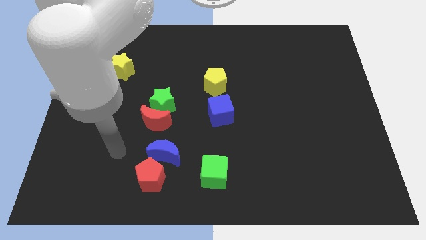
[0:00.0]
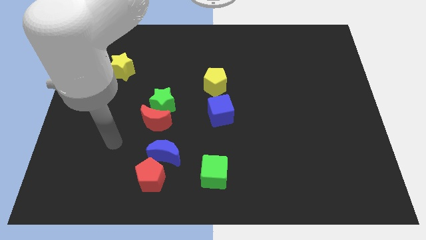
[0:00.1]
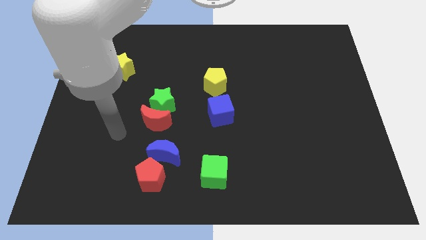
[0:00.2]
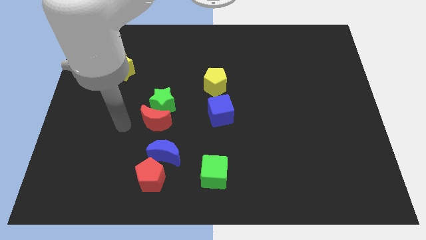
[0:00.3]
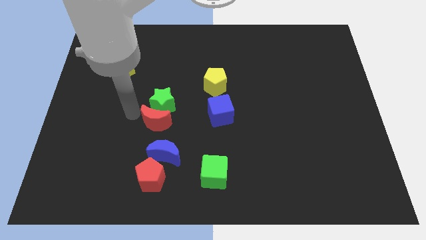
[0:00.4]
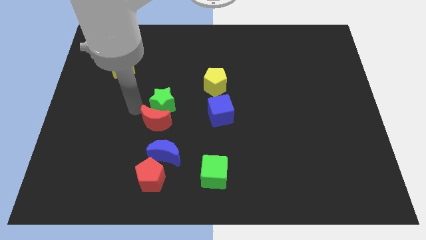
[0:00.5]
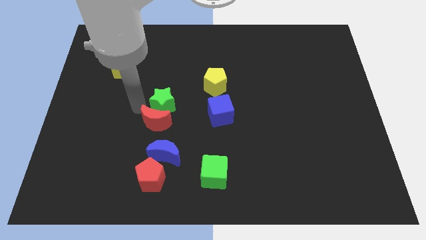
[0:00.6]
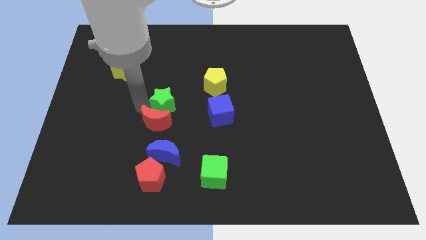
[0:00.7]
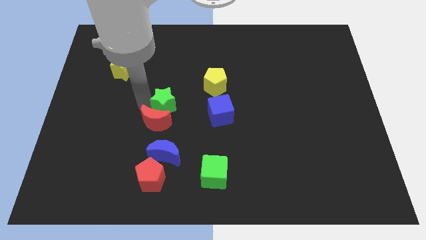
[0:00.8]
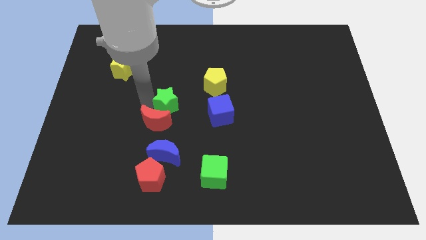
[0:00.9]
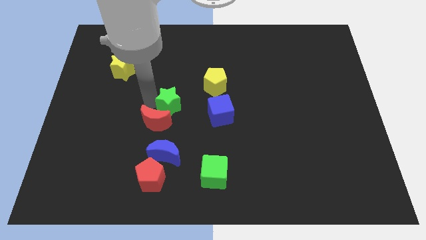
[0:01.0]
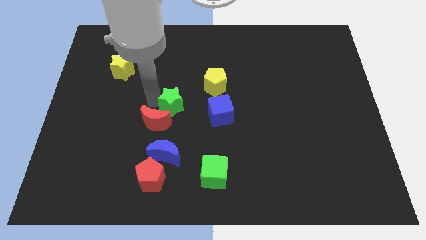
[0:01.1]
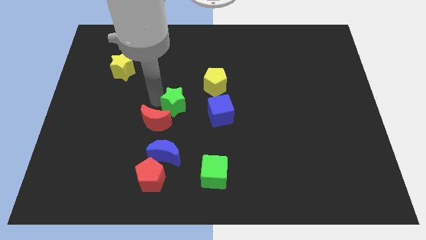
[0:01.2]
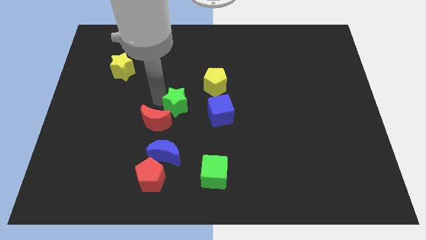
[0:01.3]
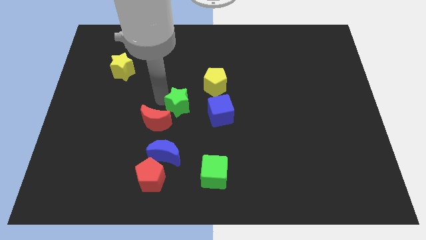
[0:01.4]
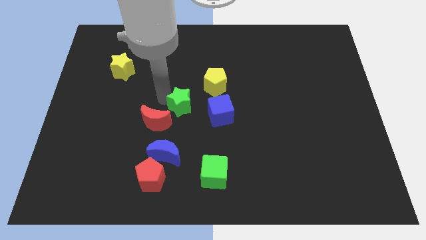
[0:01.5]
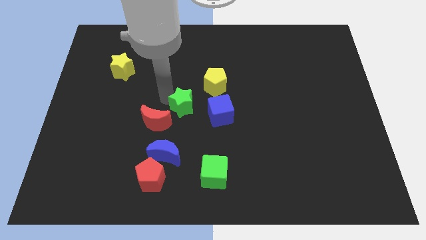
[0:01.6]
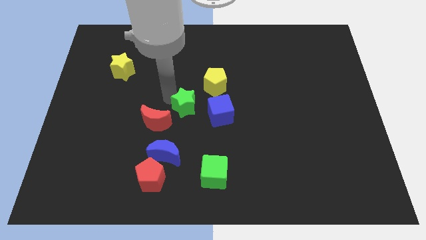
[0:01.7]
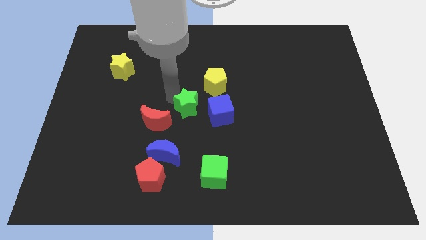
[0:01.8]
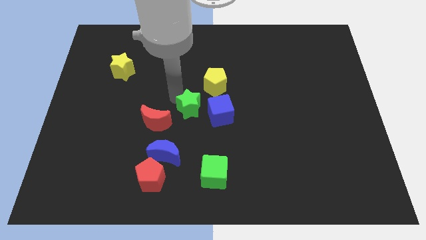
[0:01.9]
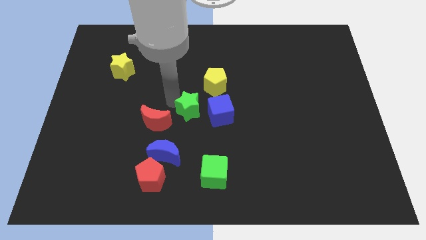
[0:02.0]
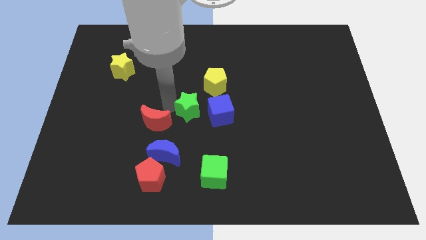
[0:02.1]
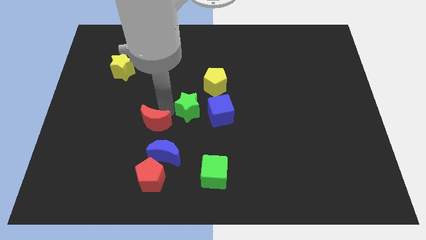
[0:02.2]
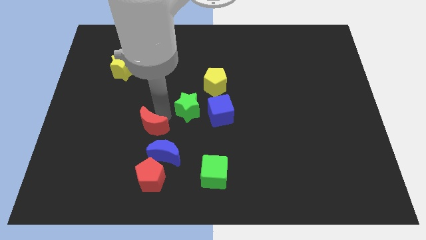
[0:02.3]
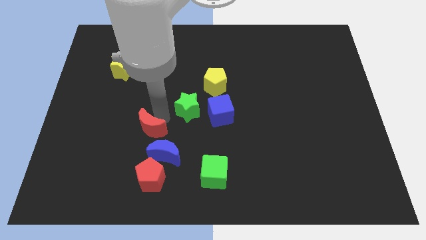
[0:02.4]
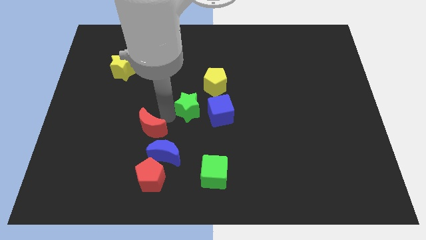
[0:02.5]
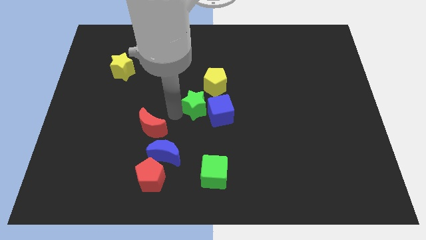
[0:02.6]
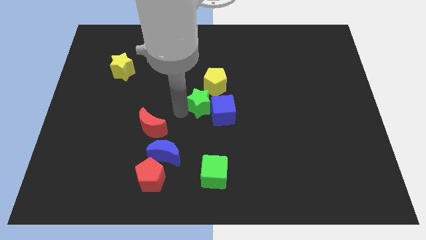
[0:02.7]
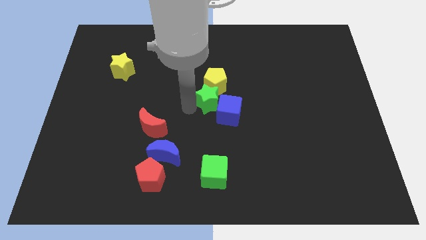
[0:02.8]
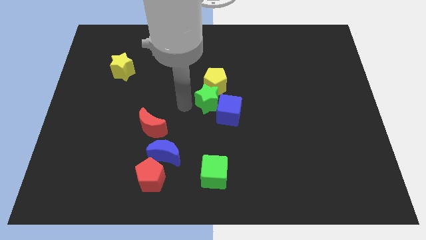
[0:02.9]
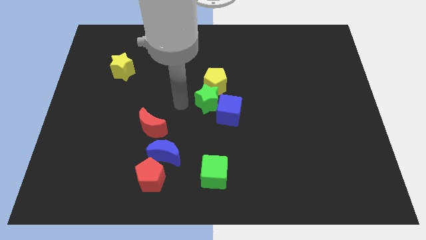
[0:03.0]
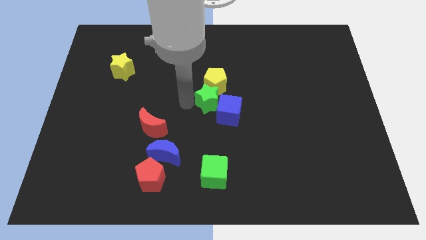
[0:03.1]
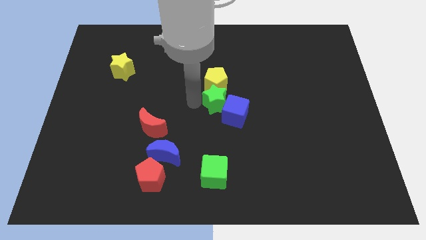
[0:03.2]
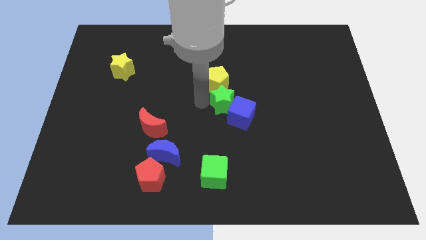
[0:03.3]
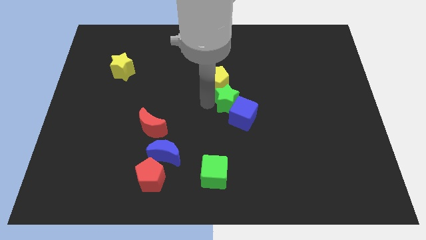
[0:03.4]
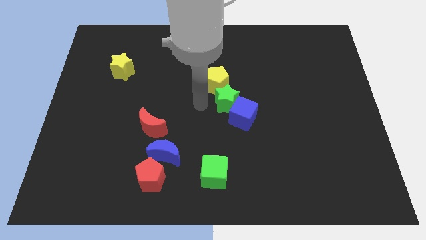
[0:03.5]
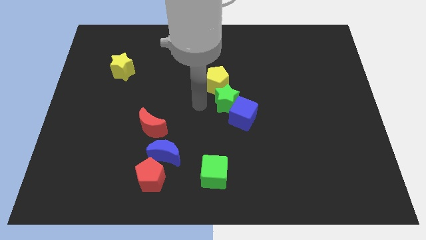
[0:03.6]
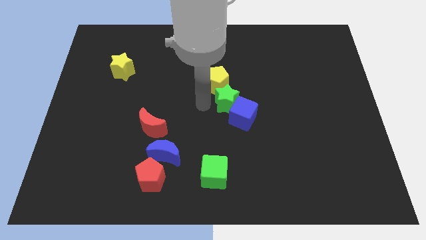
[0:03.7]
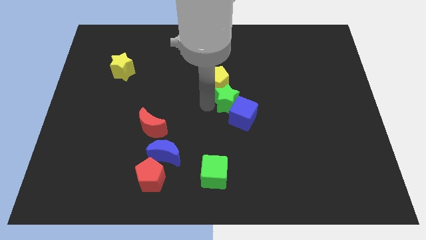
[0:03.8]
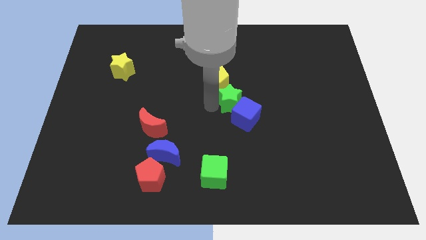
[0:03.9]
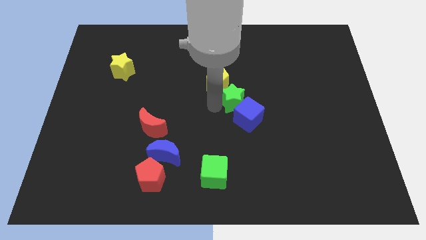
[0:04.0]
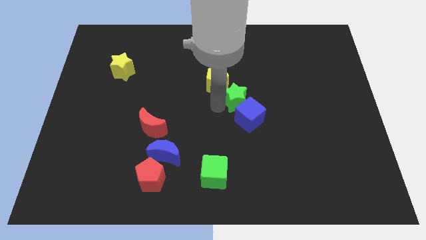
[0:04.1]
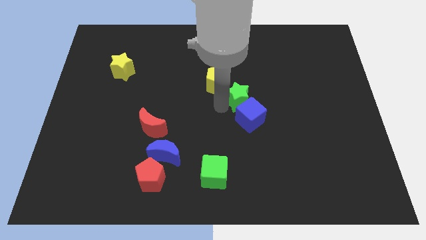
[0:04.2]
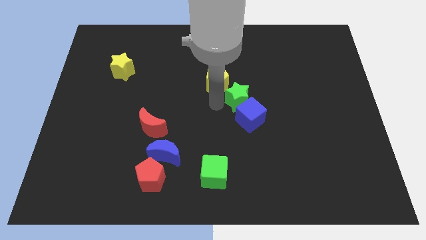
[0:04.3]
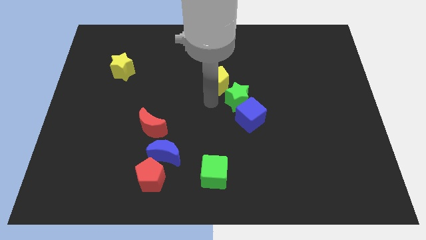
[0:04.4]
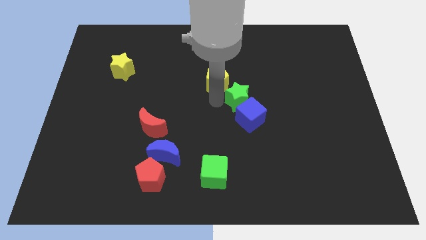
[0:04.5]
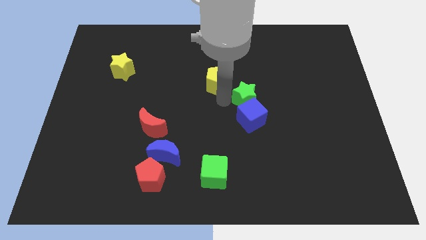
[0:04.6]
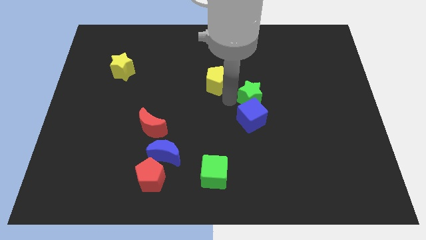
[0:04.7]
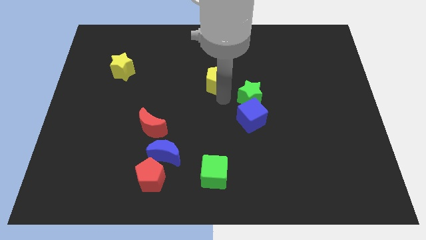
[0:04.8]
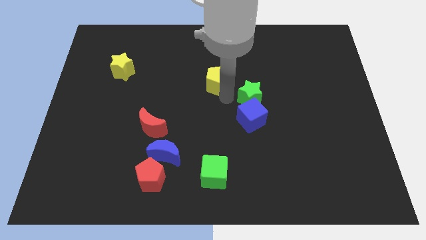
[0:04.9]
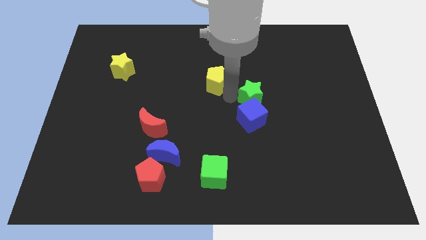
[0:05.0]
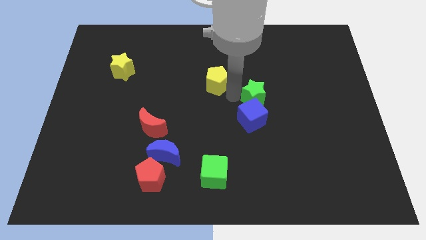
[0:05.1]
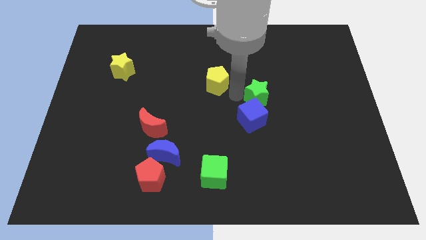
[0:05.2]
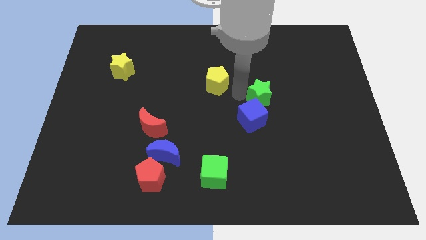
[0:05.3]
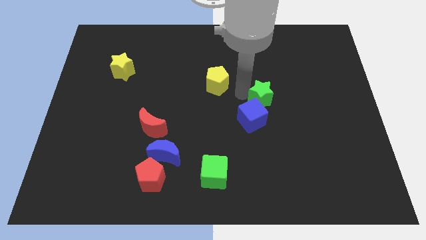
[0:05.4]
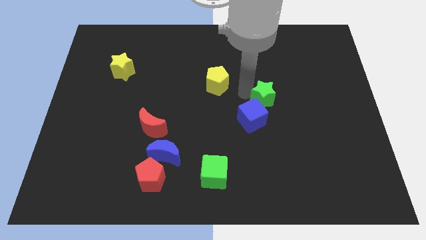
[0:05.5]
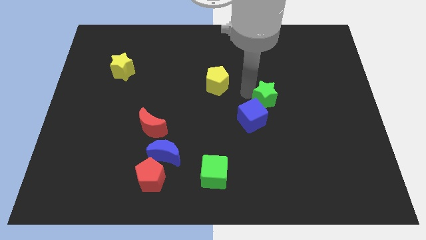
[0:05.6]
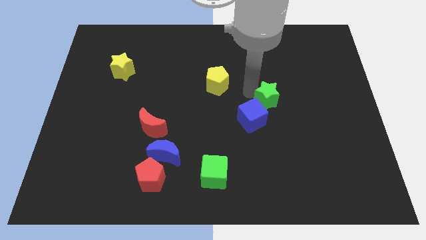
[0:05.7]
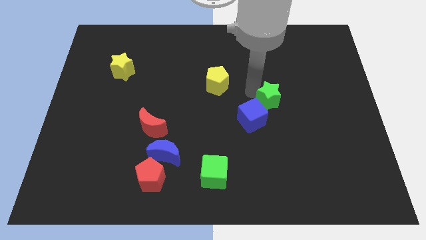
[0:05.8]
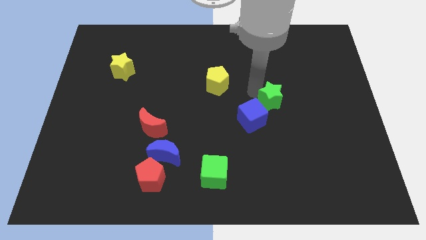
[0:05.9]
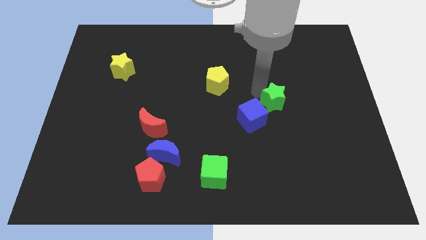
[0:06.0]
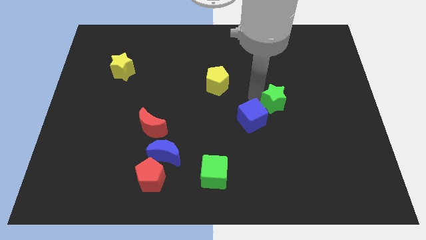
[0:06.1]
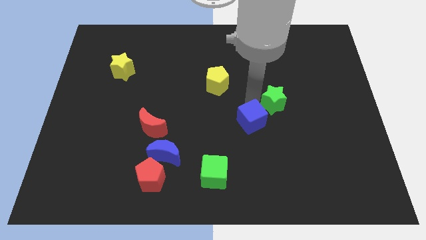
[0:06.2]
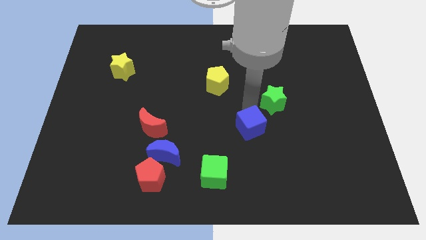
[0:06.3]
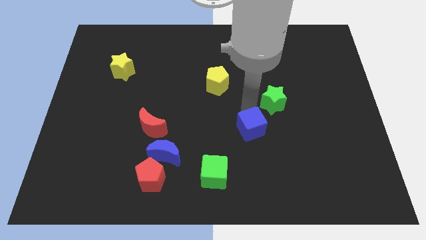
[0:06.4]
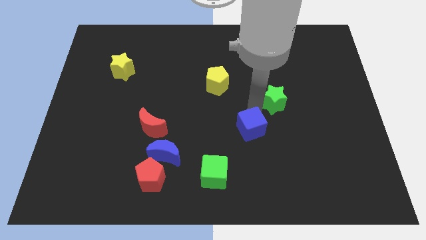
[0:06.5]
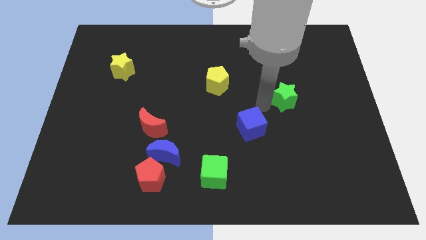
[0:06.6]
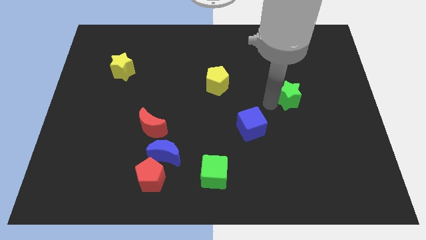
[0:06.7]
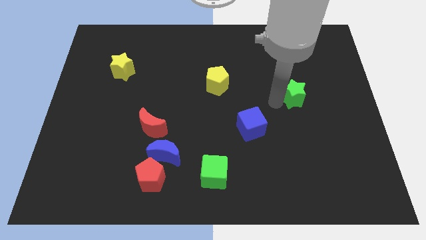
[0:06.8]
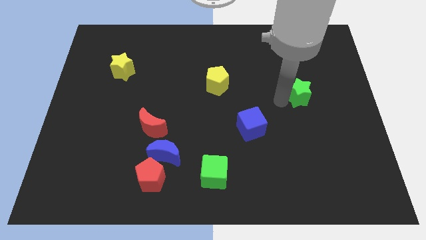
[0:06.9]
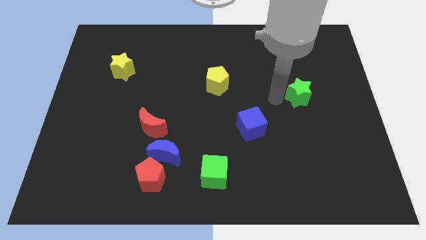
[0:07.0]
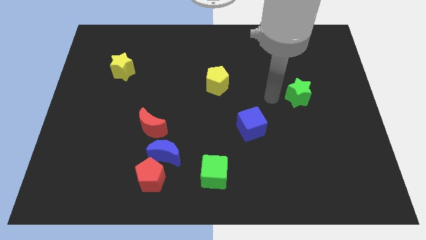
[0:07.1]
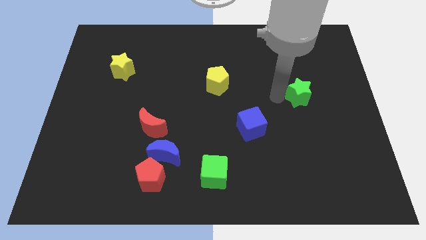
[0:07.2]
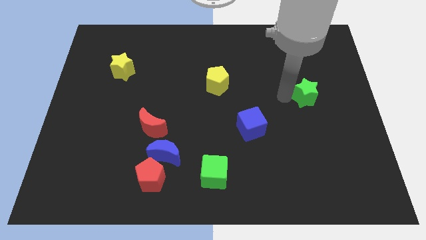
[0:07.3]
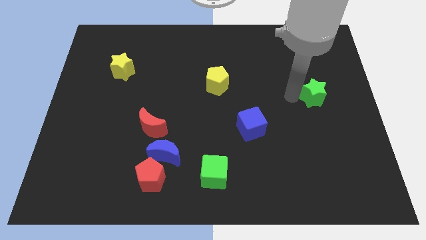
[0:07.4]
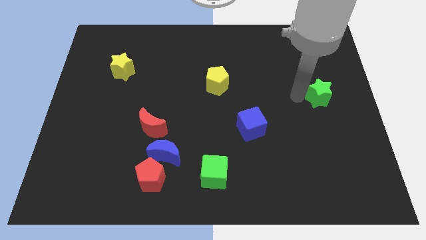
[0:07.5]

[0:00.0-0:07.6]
push the green star to the center right
